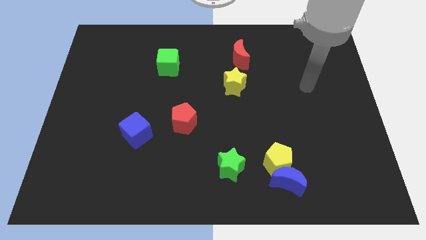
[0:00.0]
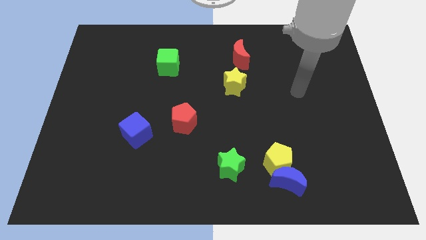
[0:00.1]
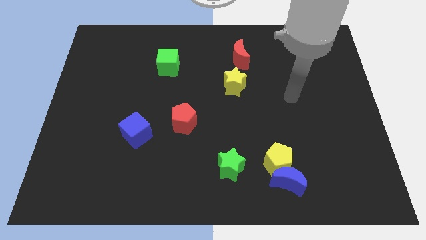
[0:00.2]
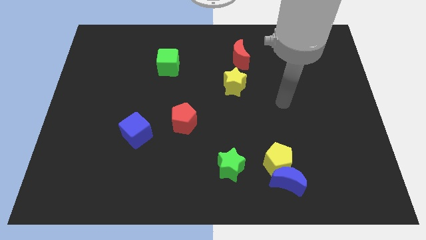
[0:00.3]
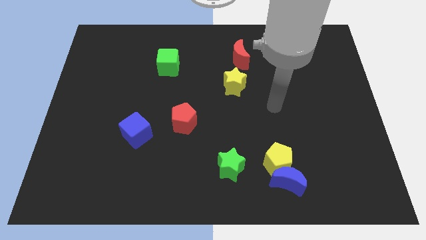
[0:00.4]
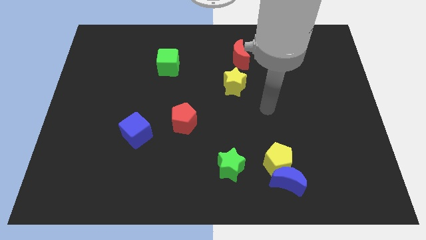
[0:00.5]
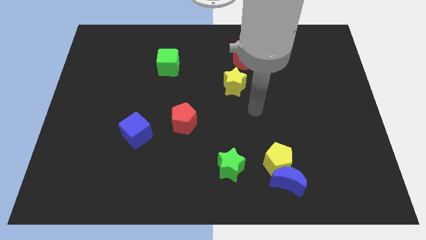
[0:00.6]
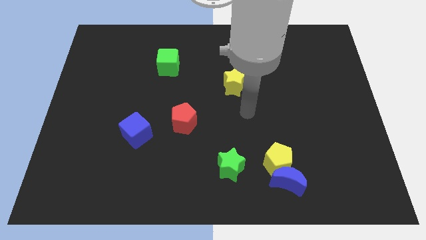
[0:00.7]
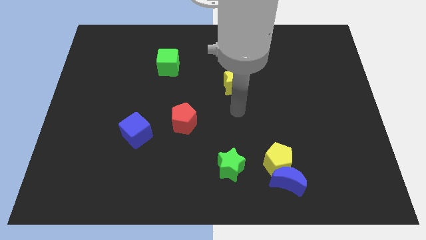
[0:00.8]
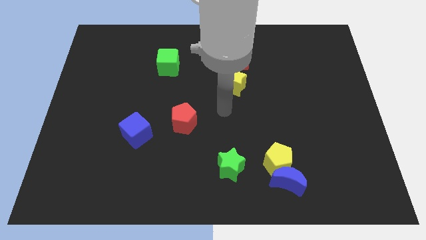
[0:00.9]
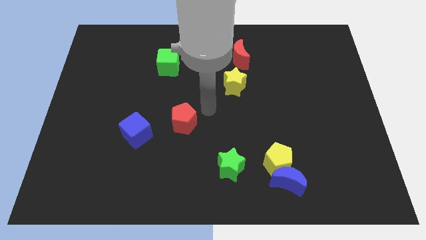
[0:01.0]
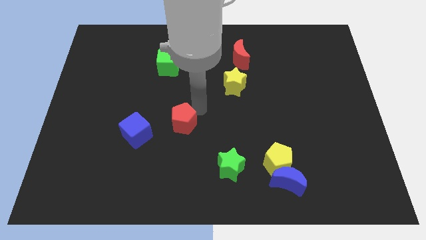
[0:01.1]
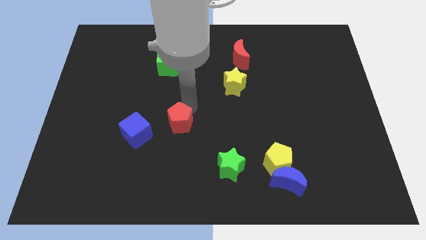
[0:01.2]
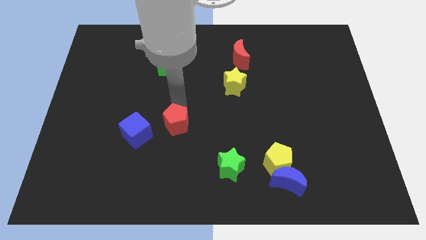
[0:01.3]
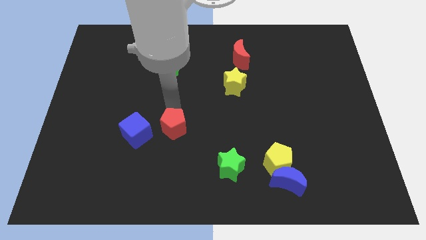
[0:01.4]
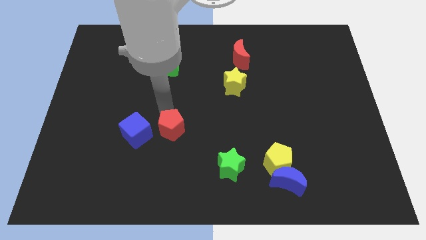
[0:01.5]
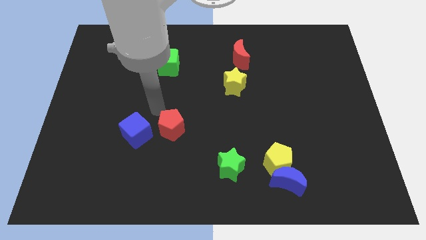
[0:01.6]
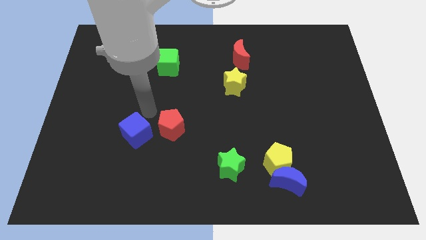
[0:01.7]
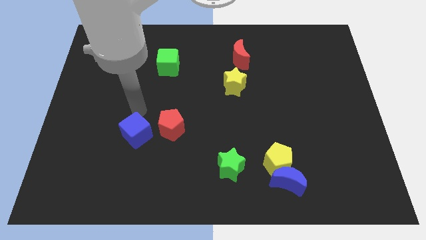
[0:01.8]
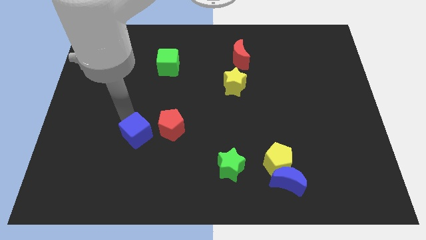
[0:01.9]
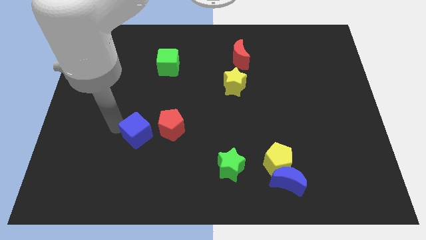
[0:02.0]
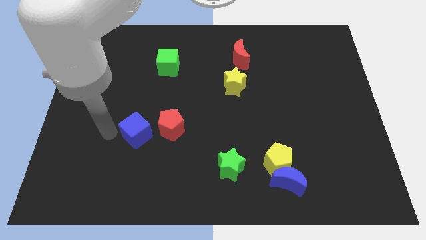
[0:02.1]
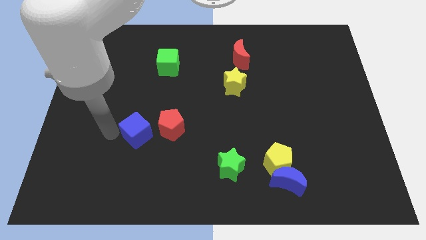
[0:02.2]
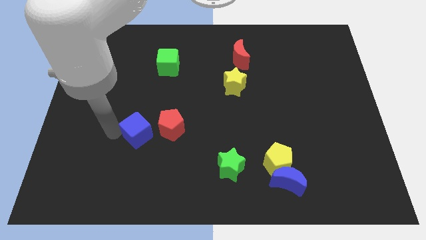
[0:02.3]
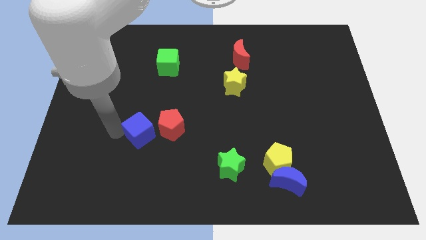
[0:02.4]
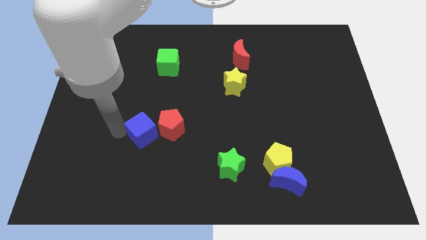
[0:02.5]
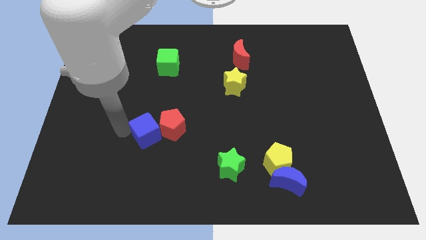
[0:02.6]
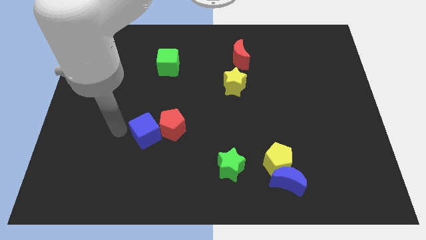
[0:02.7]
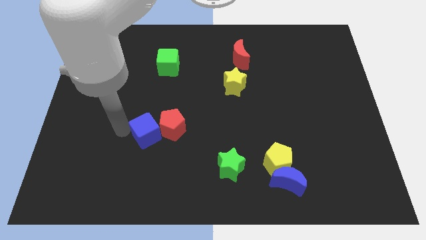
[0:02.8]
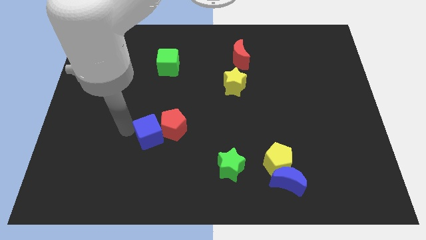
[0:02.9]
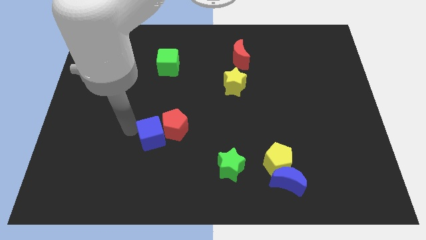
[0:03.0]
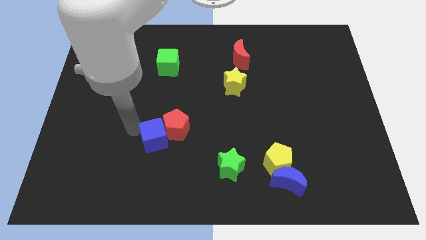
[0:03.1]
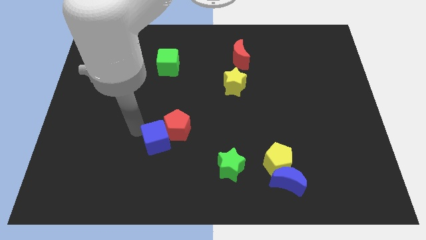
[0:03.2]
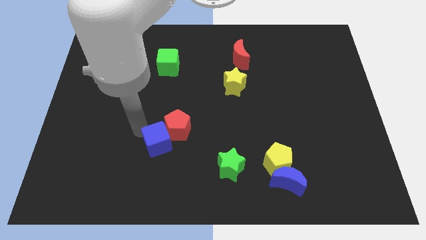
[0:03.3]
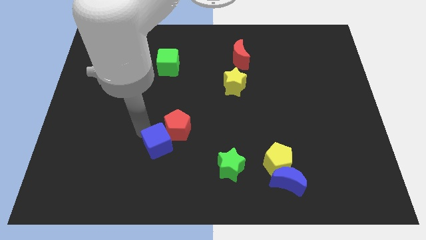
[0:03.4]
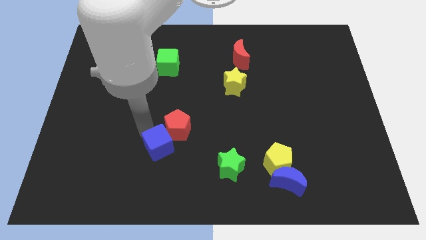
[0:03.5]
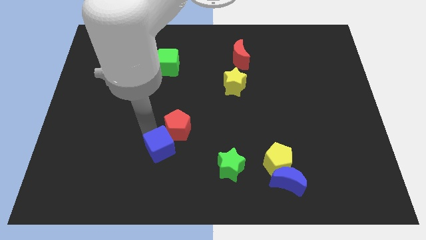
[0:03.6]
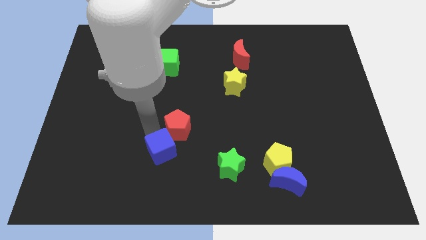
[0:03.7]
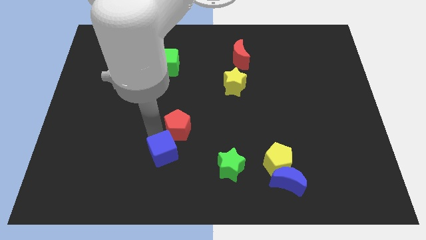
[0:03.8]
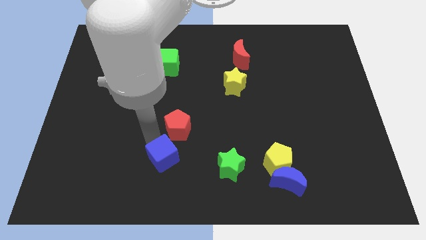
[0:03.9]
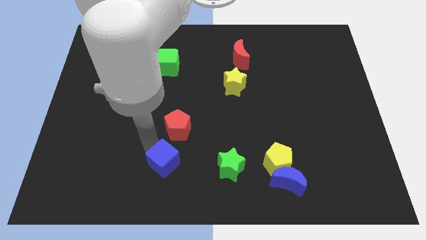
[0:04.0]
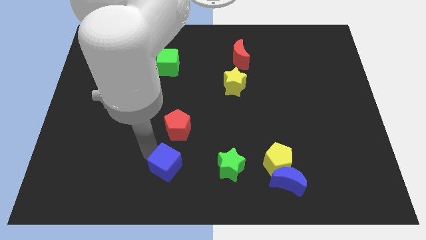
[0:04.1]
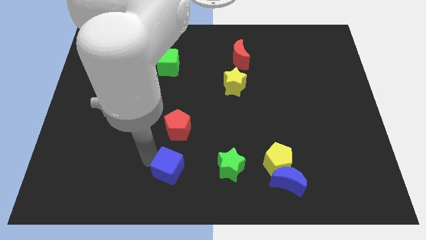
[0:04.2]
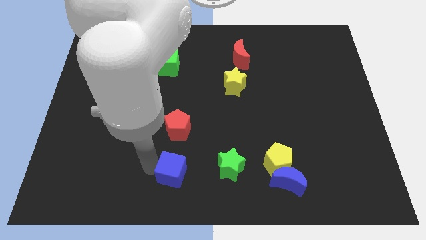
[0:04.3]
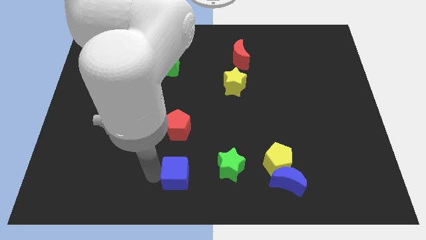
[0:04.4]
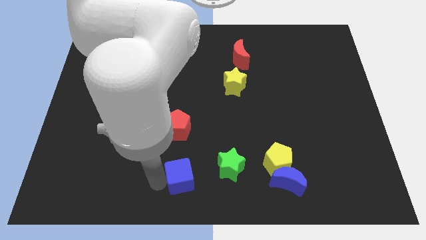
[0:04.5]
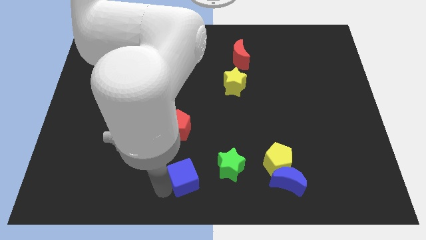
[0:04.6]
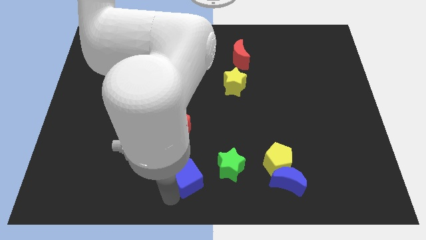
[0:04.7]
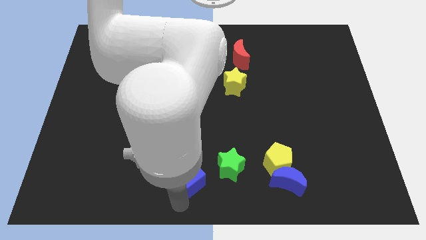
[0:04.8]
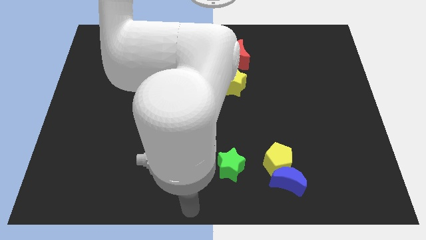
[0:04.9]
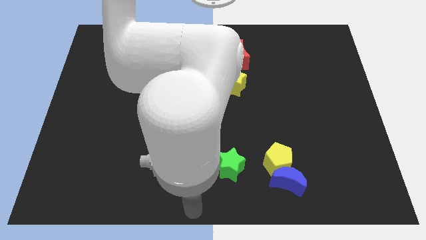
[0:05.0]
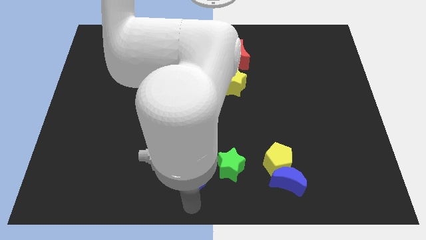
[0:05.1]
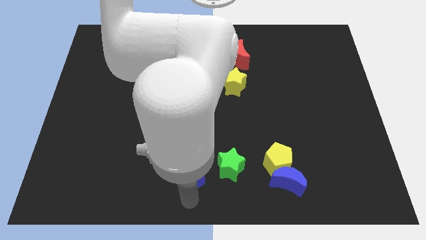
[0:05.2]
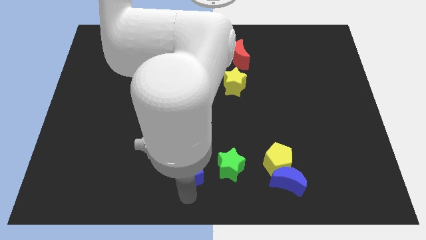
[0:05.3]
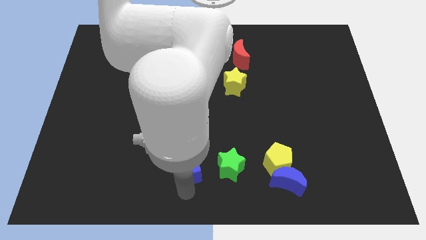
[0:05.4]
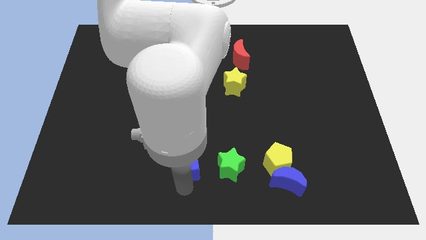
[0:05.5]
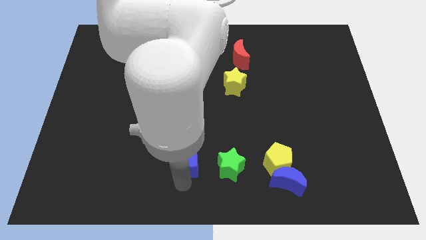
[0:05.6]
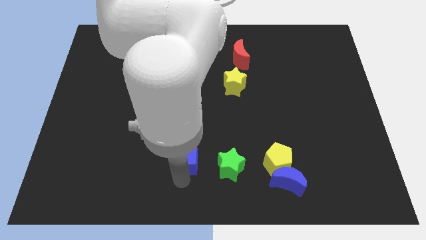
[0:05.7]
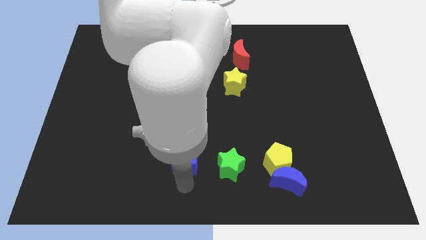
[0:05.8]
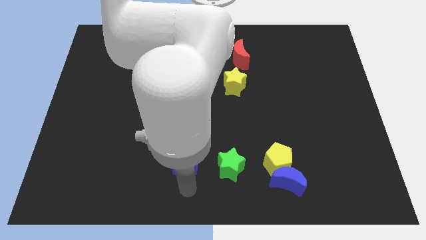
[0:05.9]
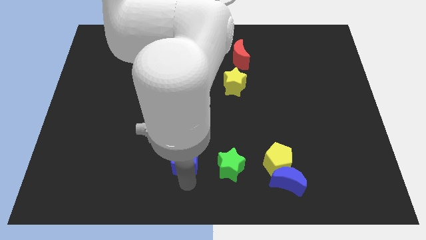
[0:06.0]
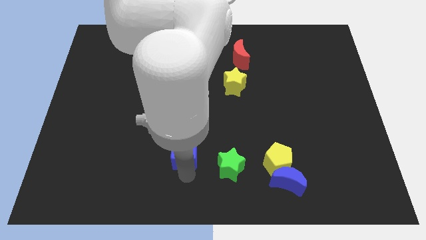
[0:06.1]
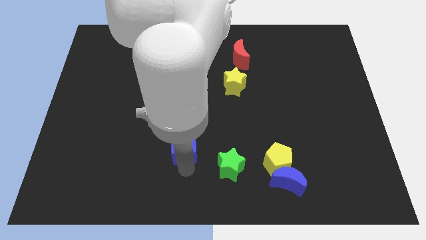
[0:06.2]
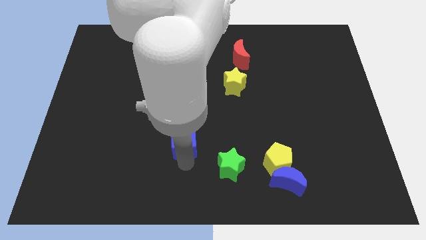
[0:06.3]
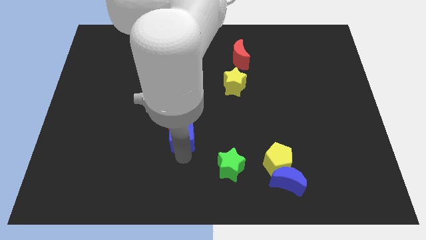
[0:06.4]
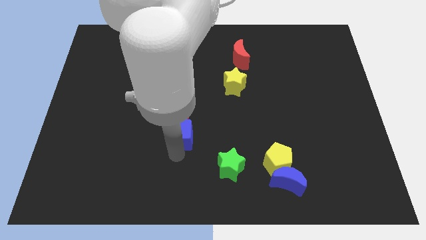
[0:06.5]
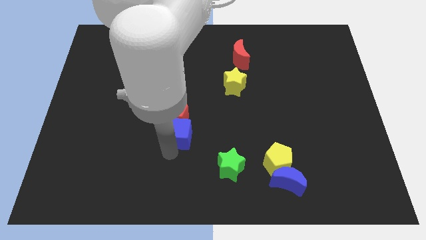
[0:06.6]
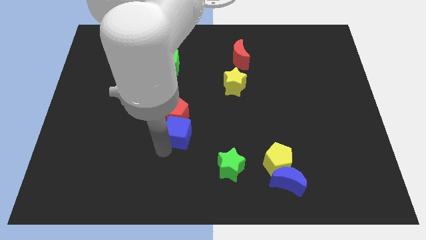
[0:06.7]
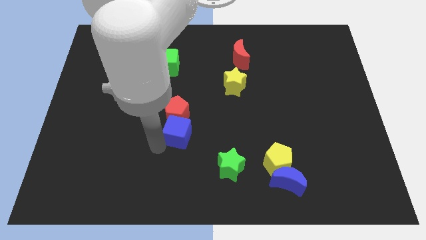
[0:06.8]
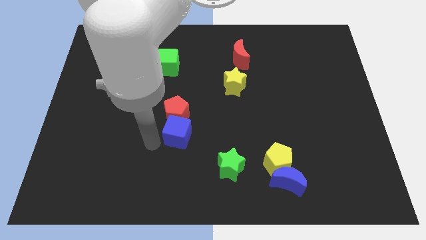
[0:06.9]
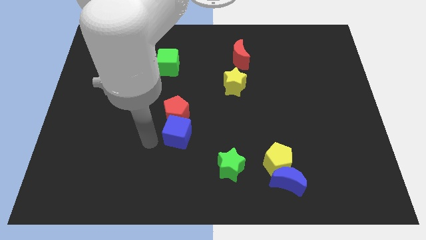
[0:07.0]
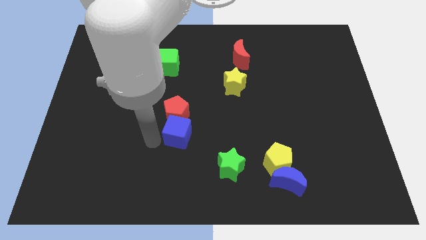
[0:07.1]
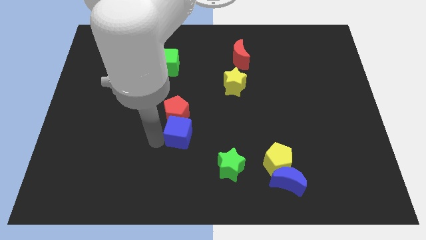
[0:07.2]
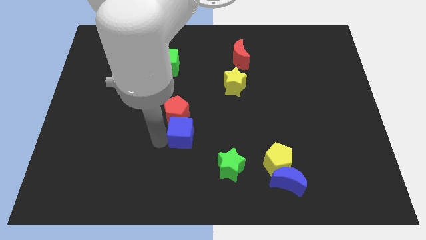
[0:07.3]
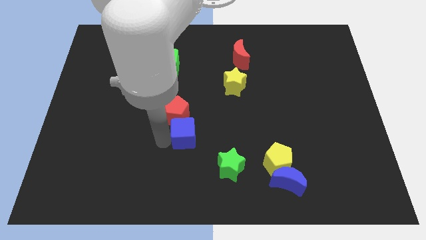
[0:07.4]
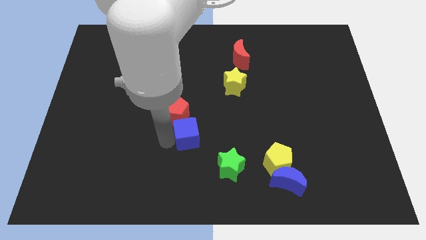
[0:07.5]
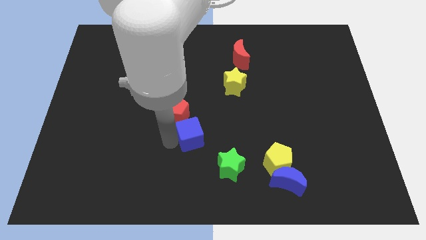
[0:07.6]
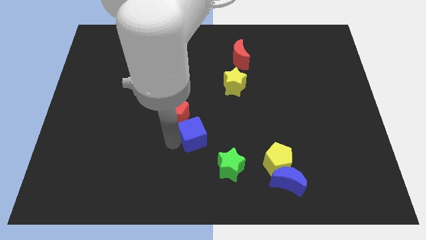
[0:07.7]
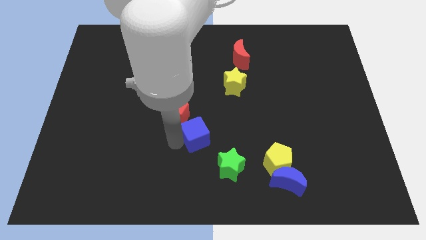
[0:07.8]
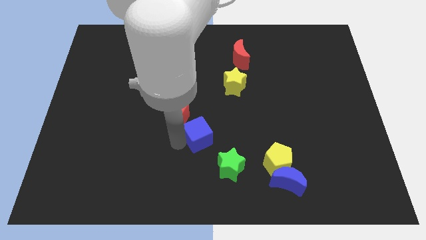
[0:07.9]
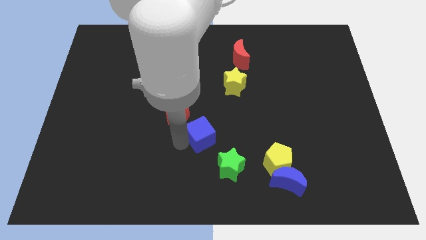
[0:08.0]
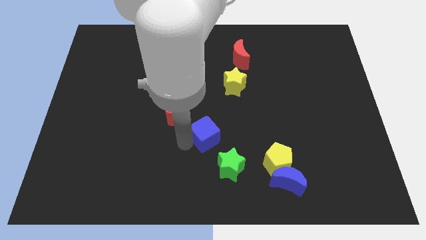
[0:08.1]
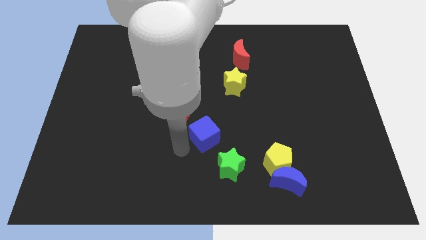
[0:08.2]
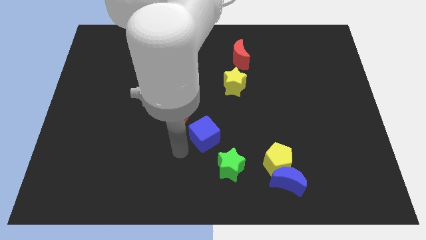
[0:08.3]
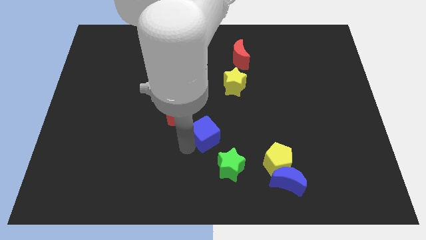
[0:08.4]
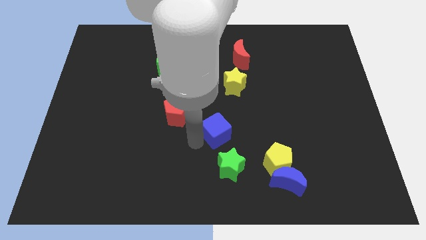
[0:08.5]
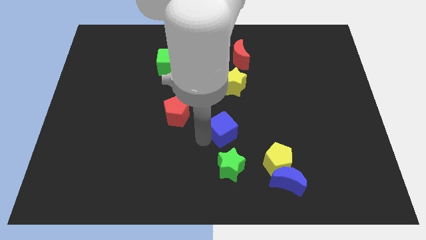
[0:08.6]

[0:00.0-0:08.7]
move the blue cube below the yellow star
